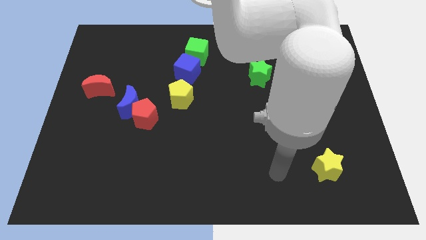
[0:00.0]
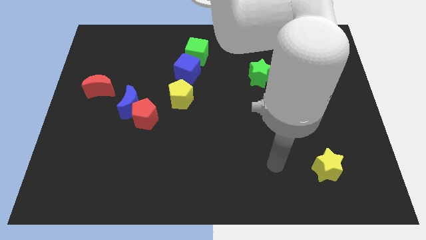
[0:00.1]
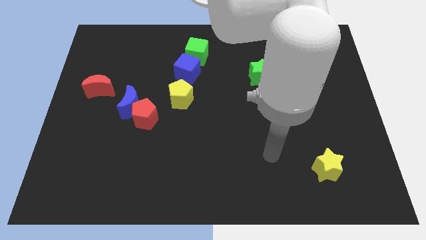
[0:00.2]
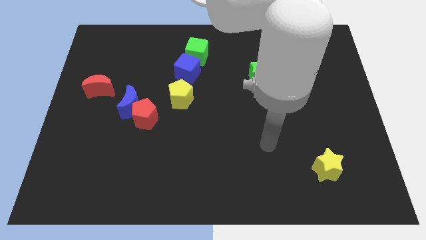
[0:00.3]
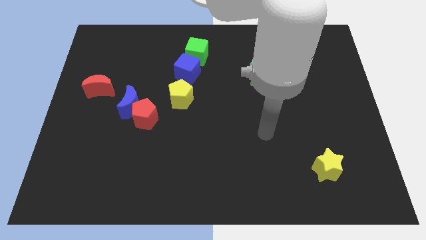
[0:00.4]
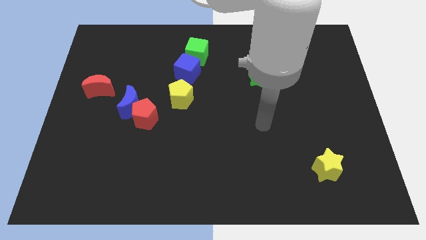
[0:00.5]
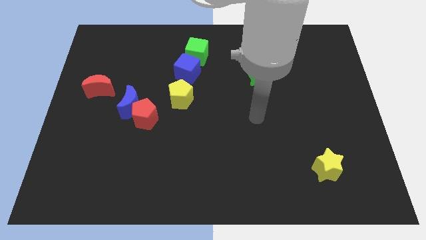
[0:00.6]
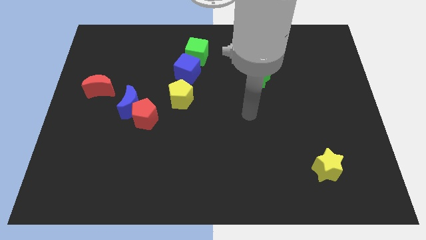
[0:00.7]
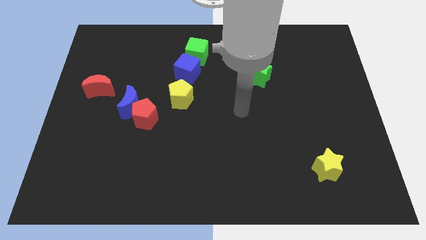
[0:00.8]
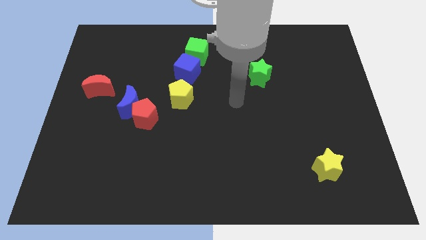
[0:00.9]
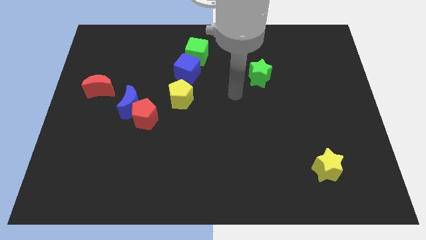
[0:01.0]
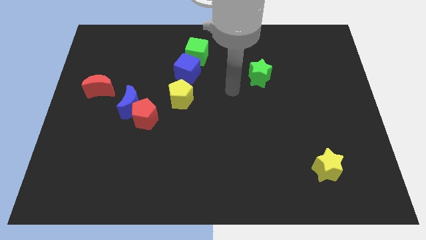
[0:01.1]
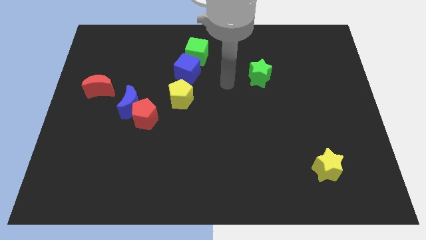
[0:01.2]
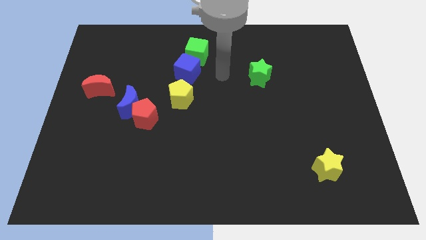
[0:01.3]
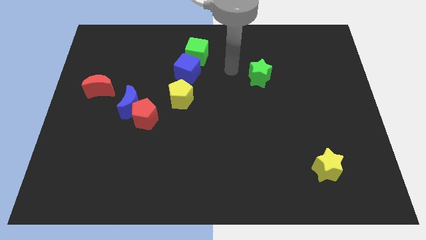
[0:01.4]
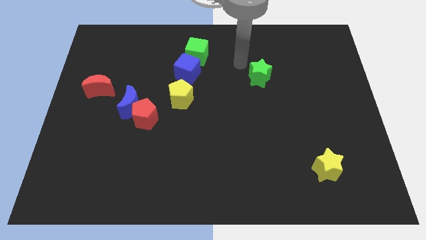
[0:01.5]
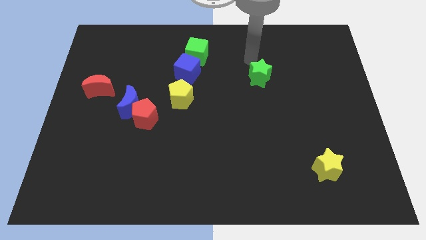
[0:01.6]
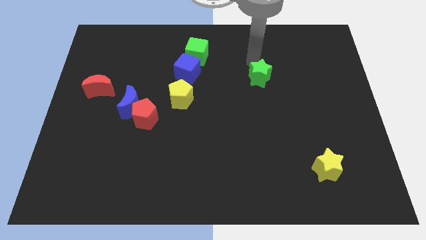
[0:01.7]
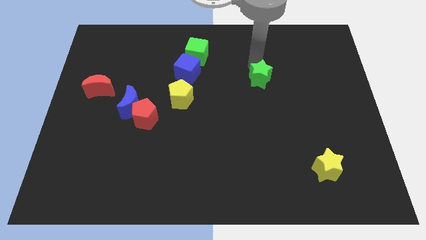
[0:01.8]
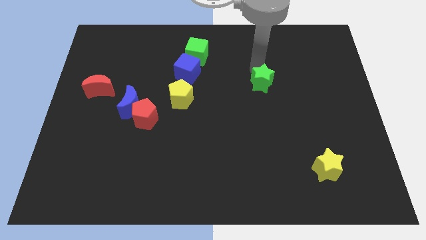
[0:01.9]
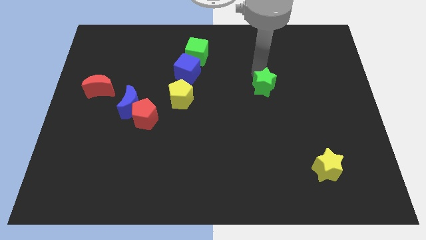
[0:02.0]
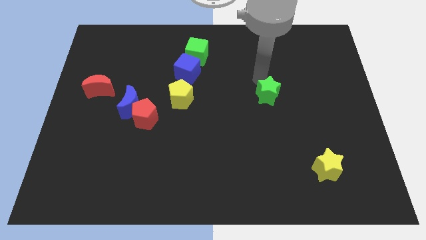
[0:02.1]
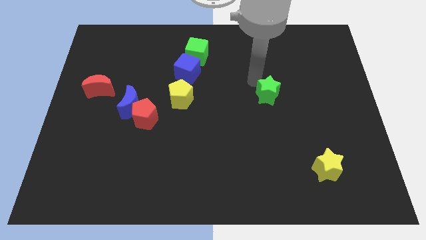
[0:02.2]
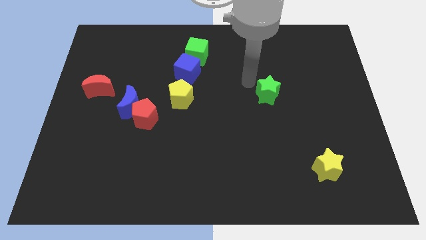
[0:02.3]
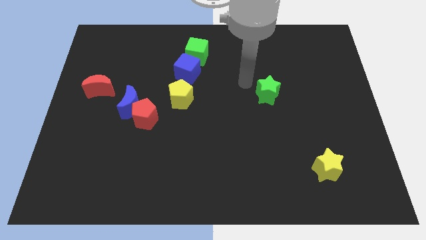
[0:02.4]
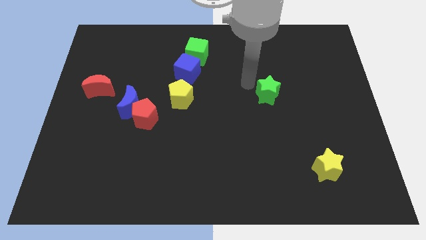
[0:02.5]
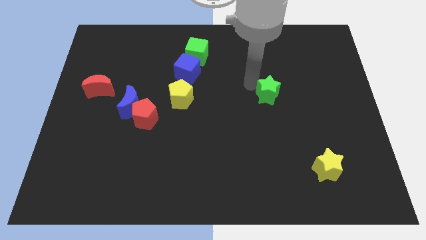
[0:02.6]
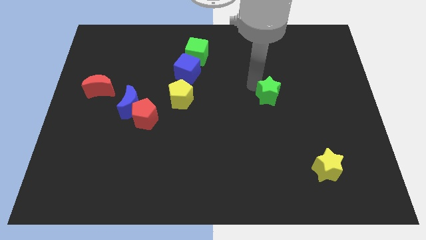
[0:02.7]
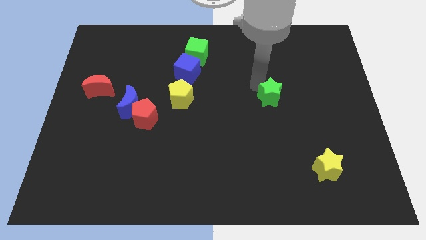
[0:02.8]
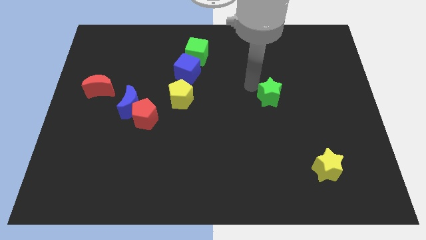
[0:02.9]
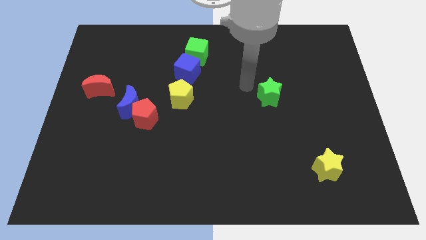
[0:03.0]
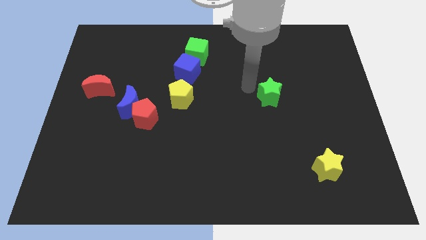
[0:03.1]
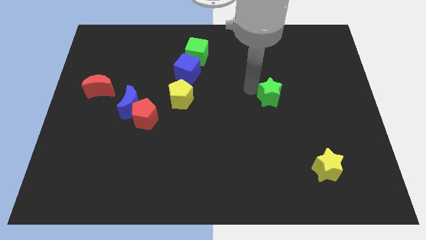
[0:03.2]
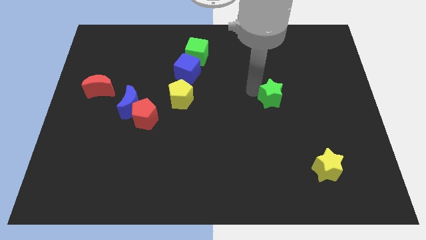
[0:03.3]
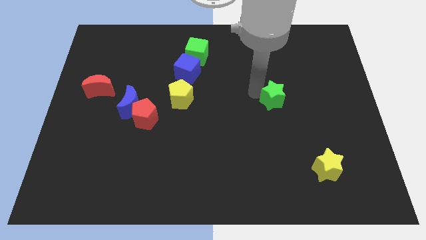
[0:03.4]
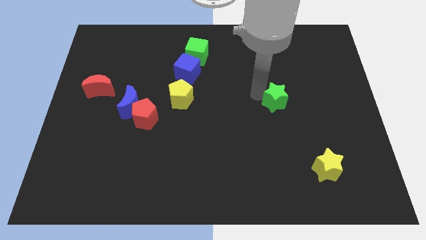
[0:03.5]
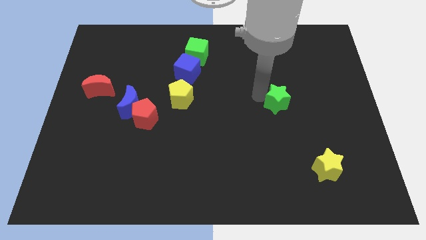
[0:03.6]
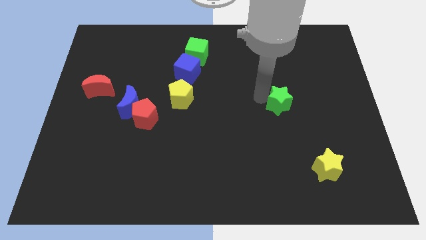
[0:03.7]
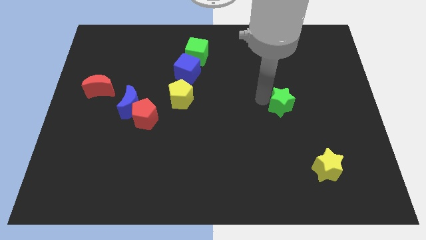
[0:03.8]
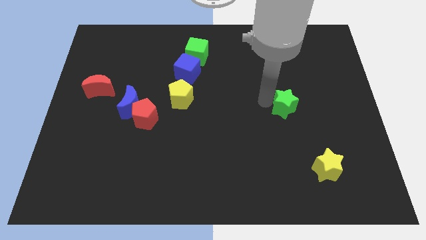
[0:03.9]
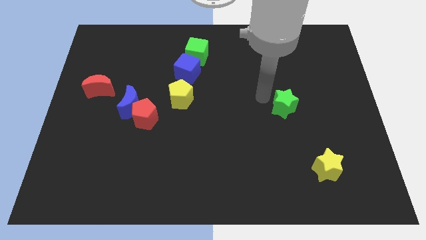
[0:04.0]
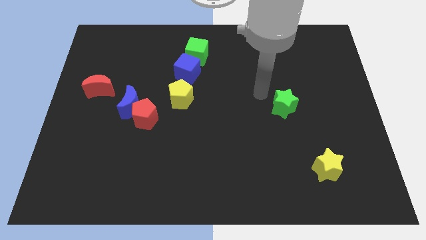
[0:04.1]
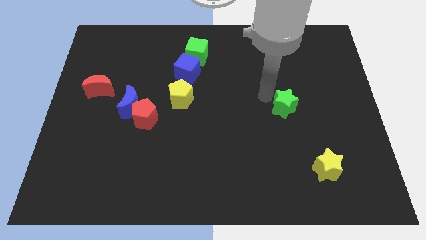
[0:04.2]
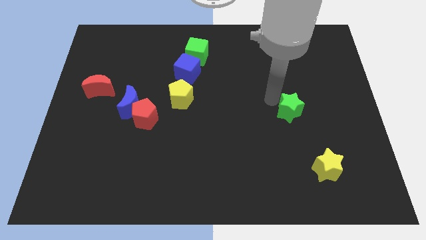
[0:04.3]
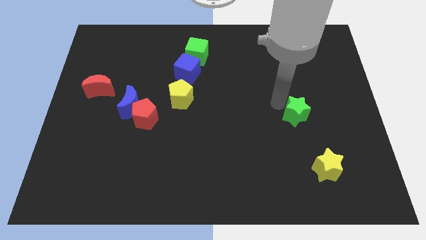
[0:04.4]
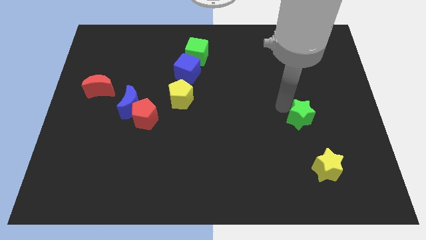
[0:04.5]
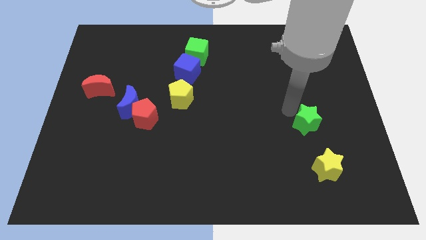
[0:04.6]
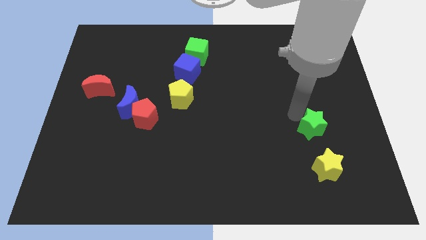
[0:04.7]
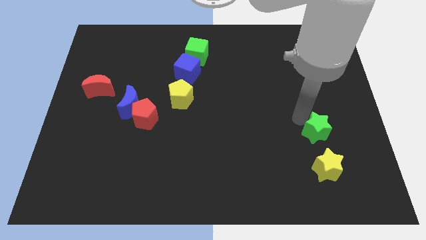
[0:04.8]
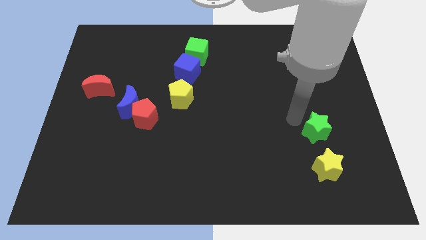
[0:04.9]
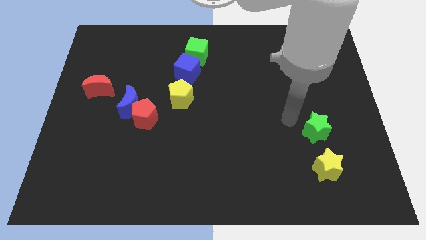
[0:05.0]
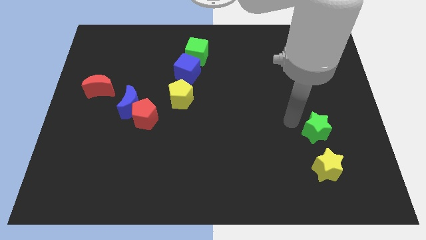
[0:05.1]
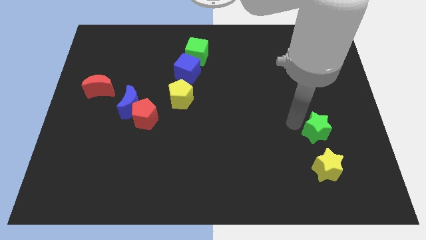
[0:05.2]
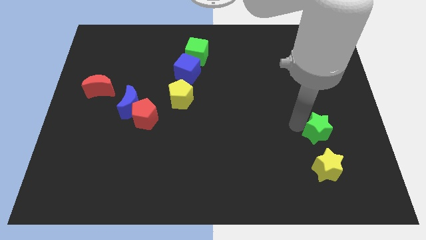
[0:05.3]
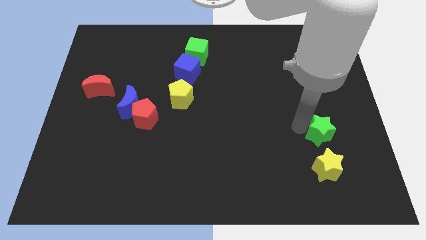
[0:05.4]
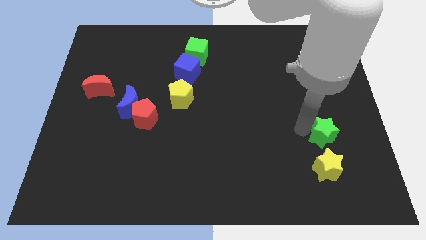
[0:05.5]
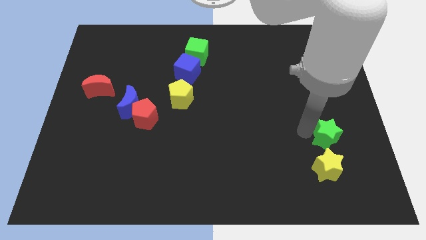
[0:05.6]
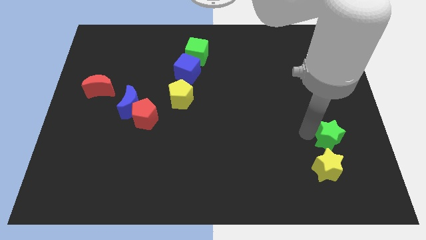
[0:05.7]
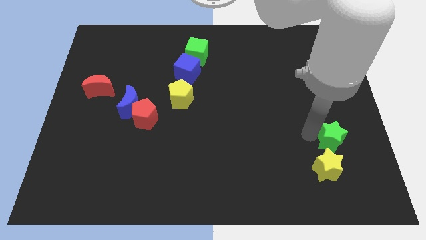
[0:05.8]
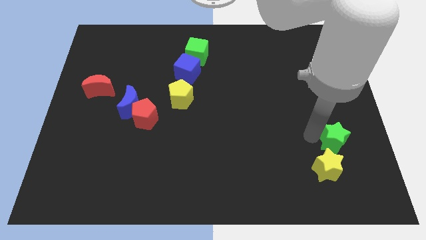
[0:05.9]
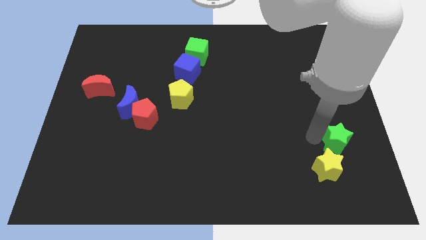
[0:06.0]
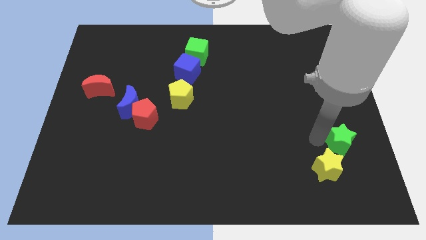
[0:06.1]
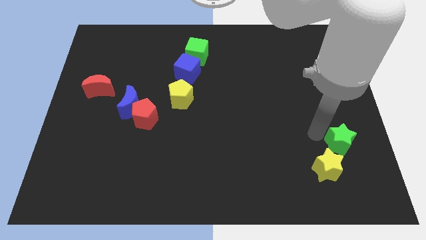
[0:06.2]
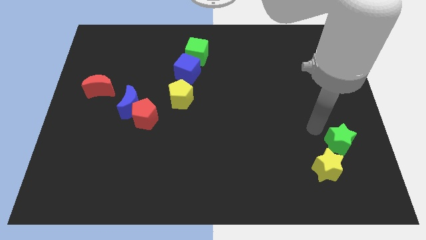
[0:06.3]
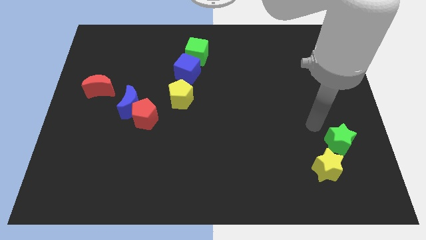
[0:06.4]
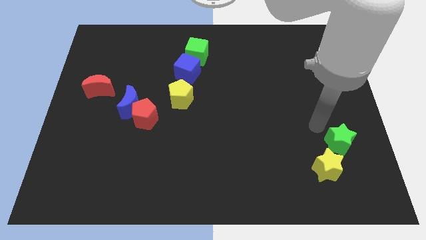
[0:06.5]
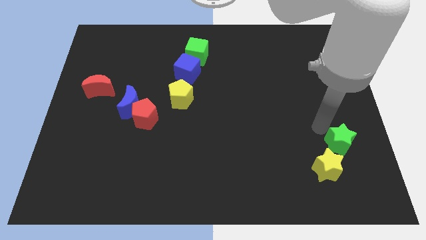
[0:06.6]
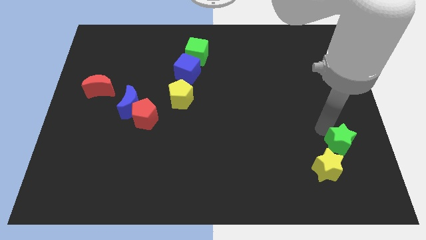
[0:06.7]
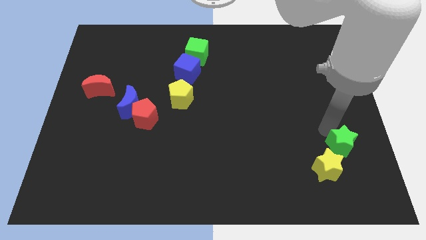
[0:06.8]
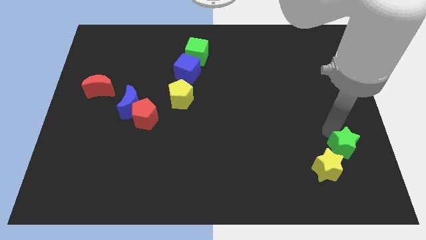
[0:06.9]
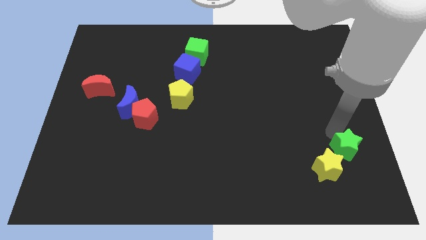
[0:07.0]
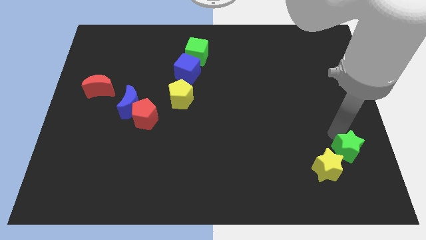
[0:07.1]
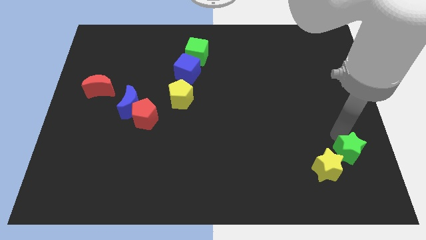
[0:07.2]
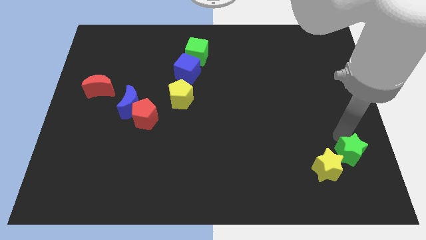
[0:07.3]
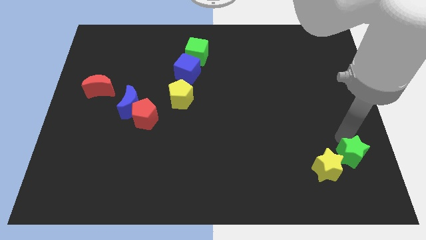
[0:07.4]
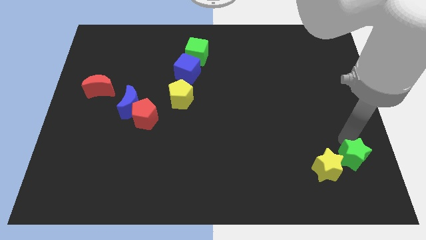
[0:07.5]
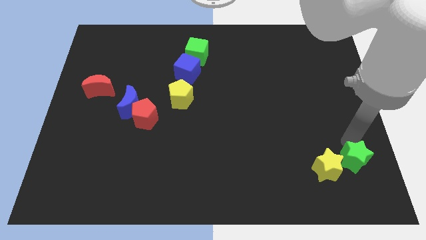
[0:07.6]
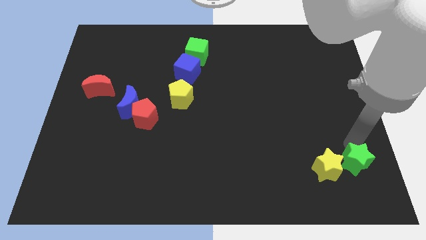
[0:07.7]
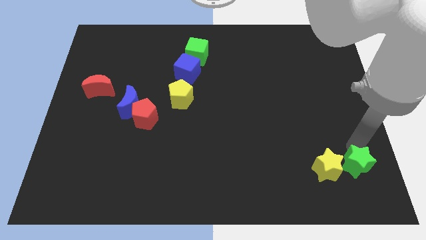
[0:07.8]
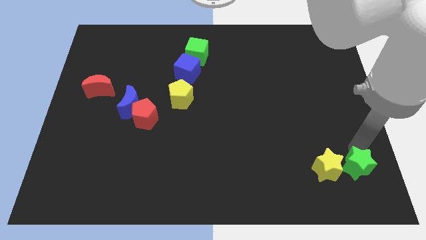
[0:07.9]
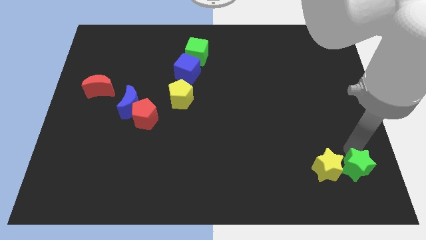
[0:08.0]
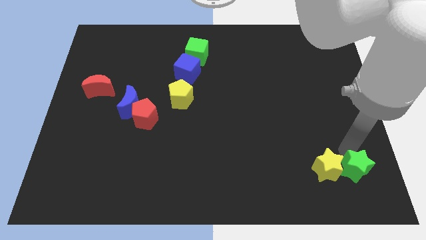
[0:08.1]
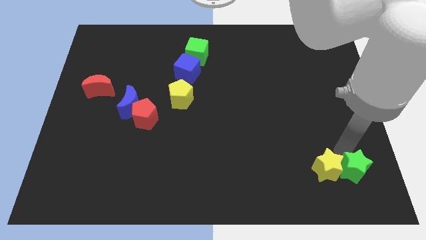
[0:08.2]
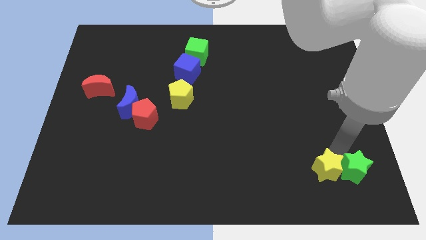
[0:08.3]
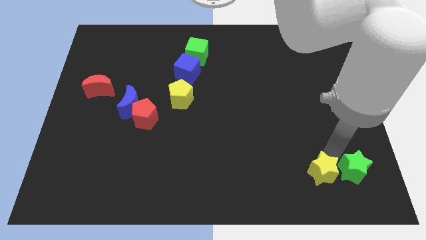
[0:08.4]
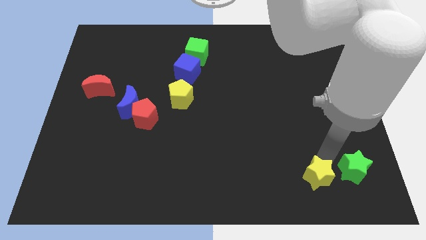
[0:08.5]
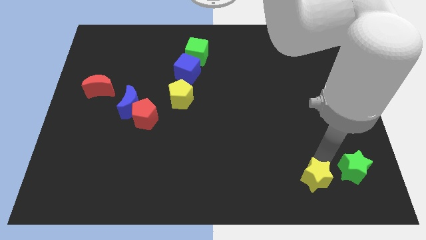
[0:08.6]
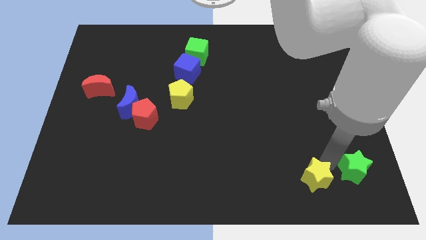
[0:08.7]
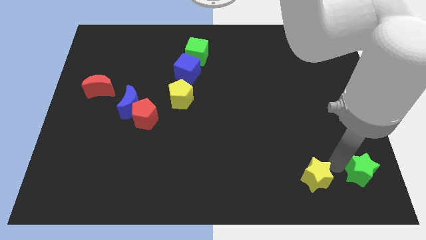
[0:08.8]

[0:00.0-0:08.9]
move the green star to the lower right corner
